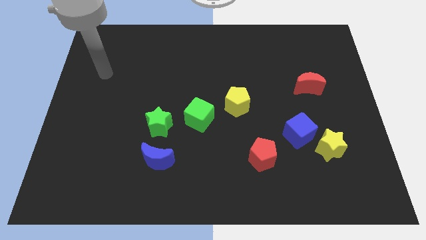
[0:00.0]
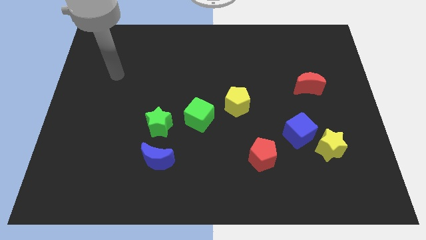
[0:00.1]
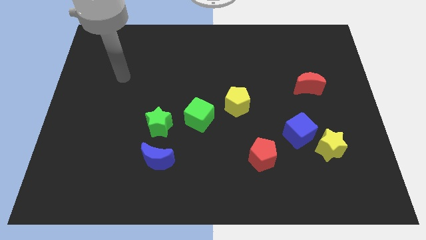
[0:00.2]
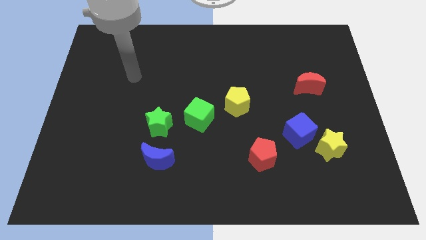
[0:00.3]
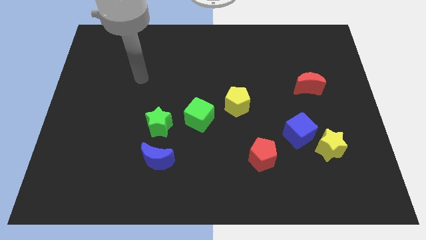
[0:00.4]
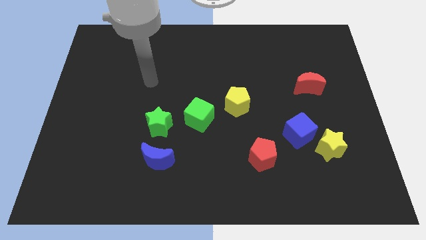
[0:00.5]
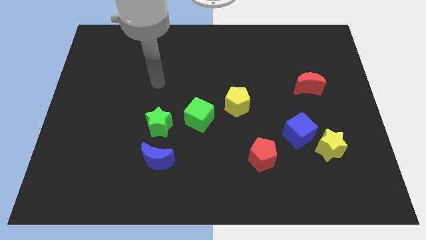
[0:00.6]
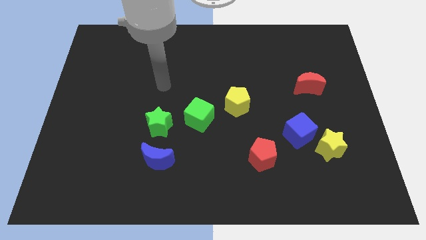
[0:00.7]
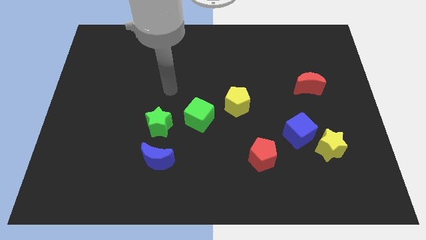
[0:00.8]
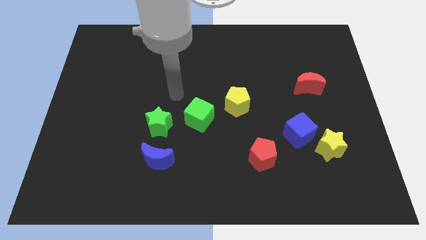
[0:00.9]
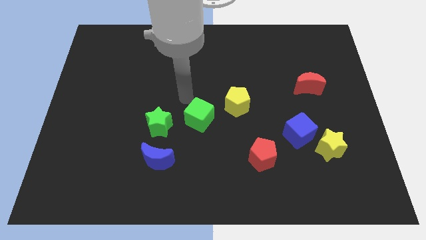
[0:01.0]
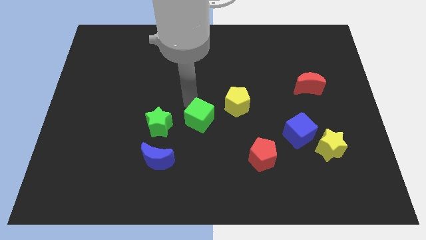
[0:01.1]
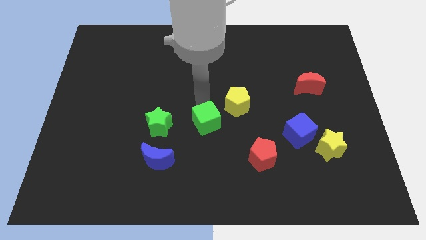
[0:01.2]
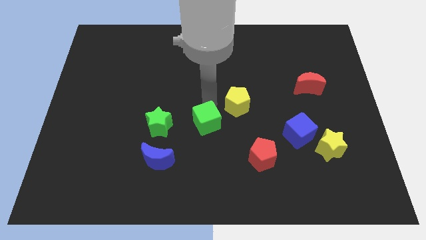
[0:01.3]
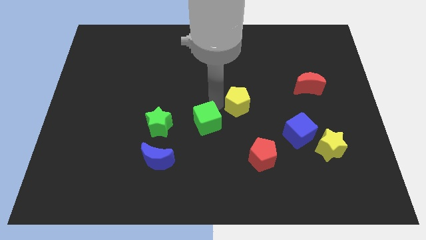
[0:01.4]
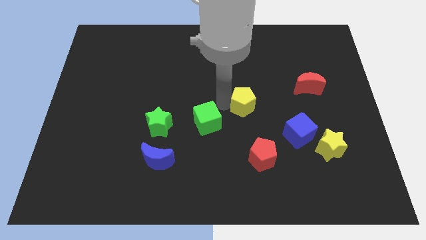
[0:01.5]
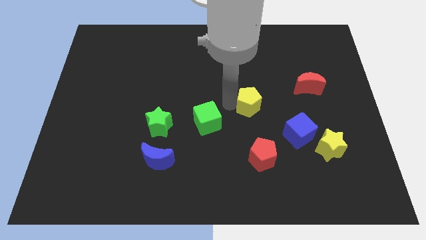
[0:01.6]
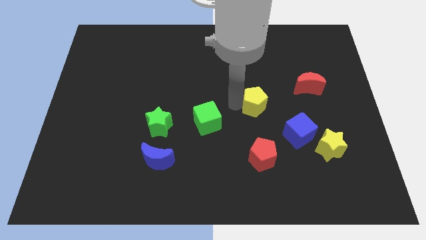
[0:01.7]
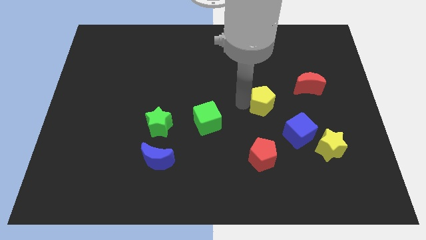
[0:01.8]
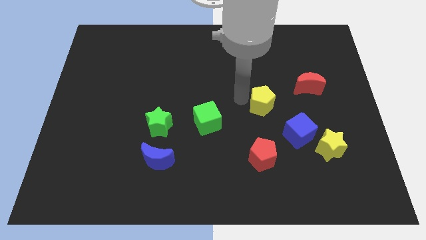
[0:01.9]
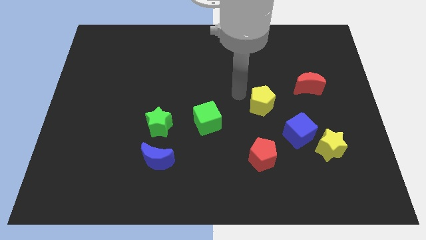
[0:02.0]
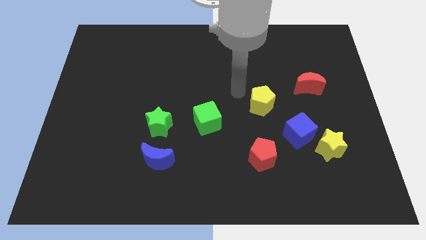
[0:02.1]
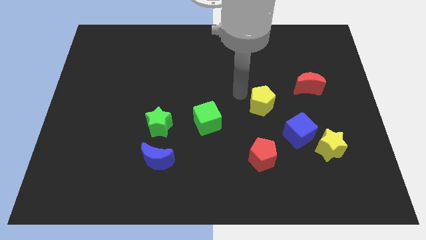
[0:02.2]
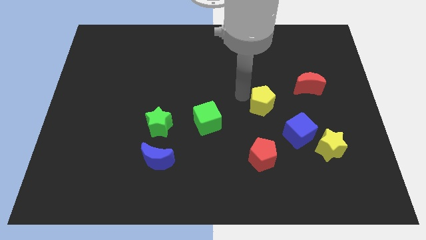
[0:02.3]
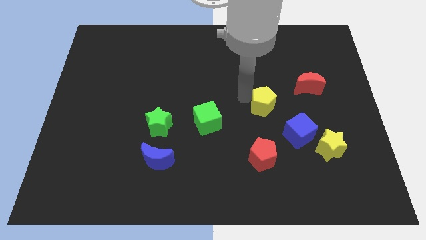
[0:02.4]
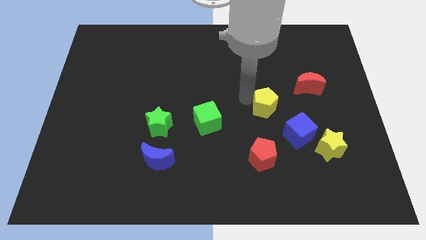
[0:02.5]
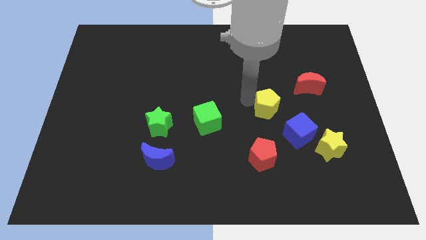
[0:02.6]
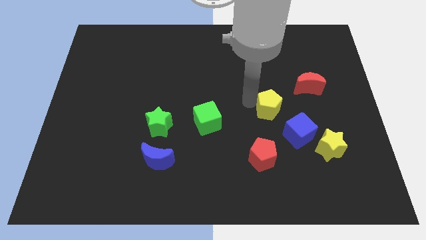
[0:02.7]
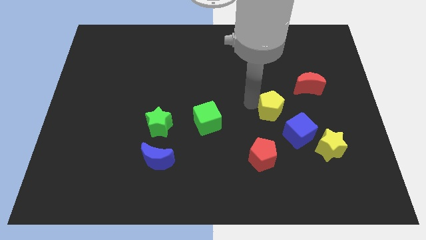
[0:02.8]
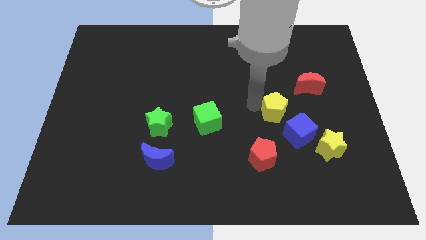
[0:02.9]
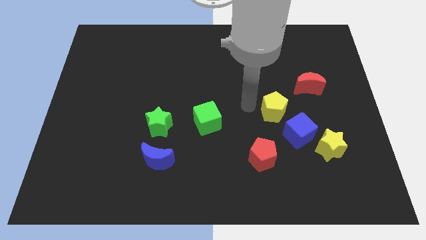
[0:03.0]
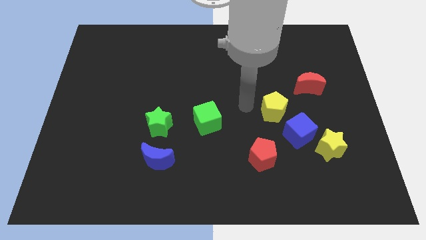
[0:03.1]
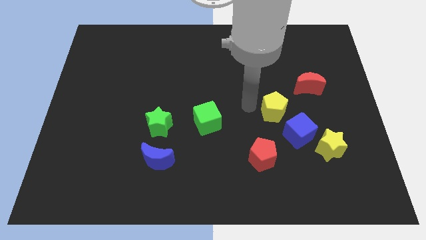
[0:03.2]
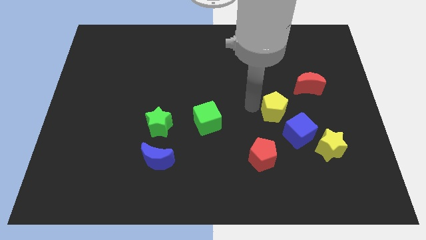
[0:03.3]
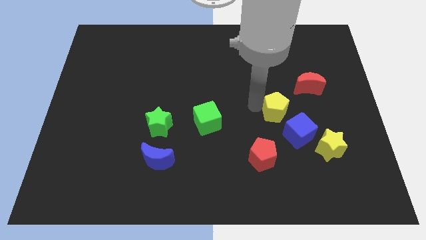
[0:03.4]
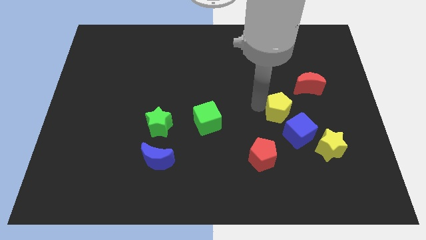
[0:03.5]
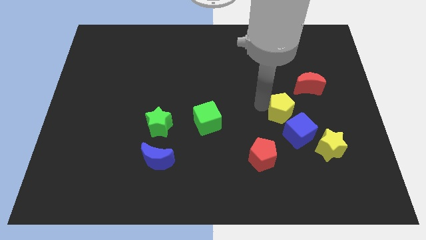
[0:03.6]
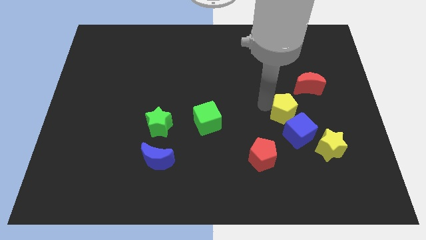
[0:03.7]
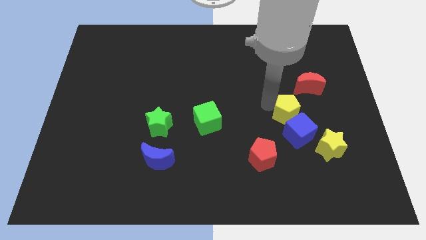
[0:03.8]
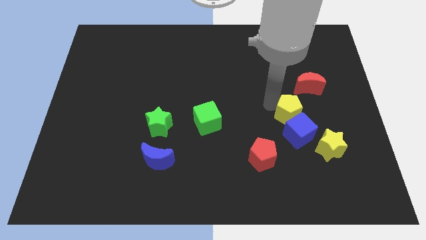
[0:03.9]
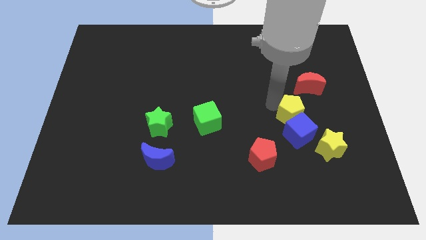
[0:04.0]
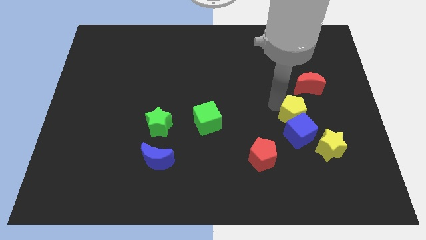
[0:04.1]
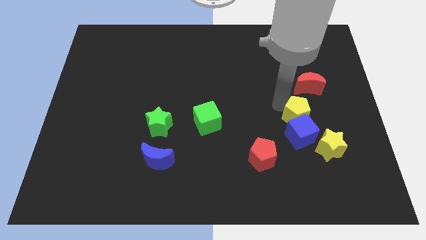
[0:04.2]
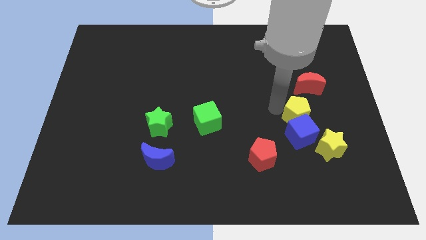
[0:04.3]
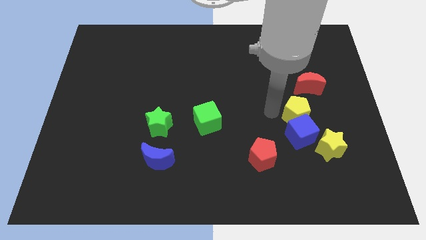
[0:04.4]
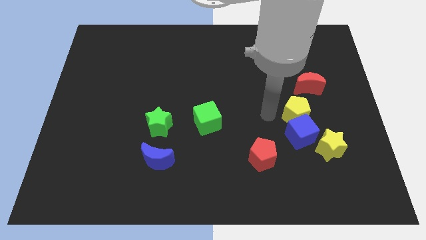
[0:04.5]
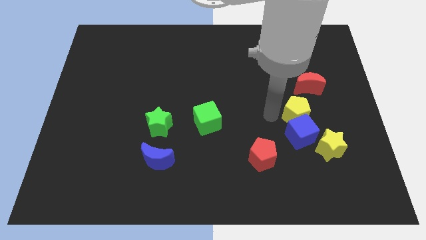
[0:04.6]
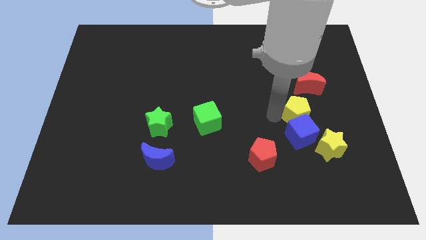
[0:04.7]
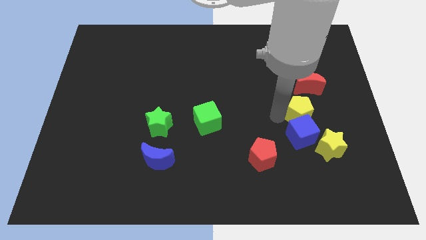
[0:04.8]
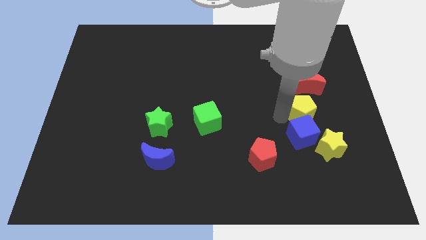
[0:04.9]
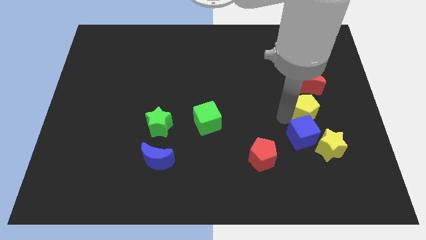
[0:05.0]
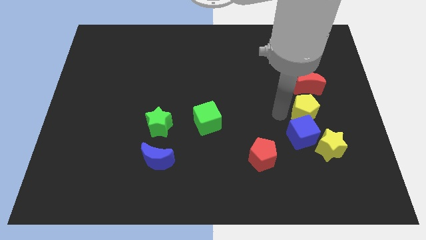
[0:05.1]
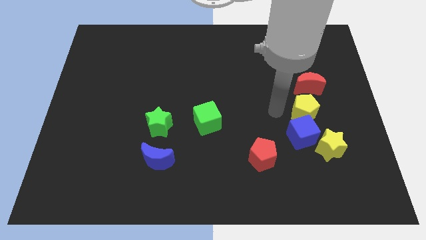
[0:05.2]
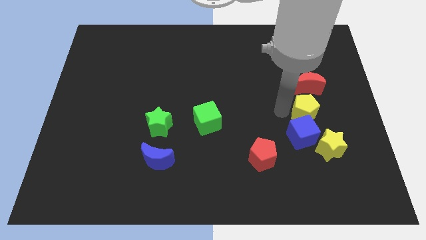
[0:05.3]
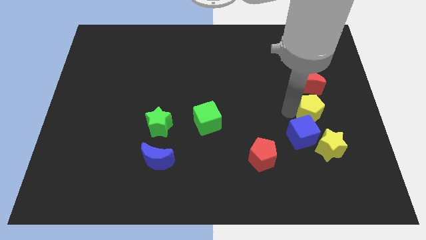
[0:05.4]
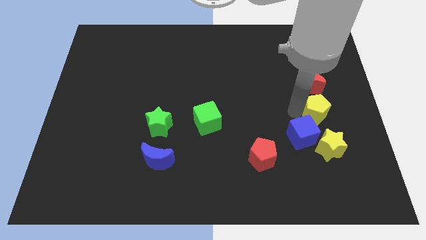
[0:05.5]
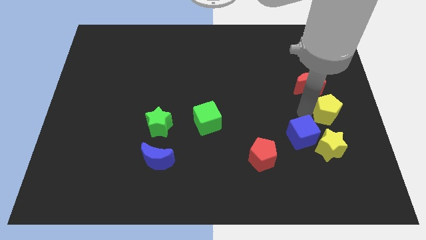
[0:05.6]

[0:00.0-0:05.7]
put the yellow pentagon to the right side

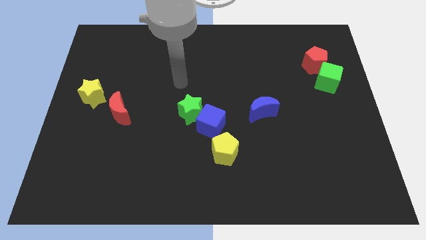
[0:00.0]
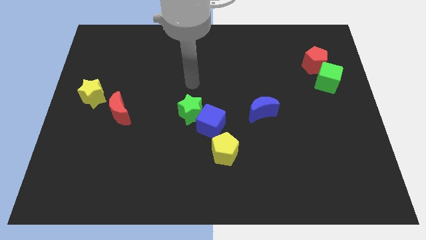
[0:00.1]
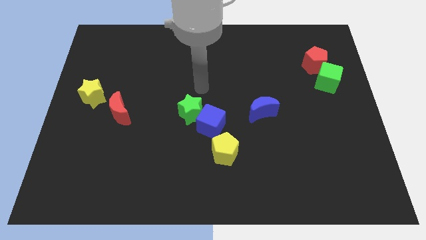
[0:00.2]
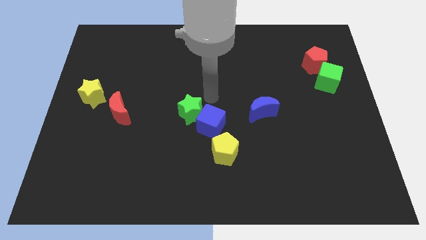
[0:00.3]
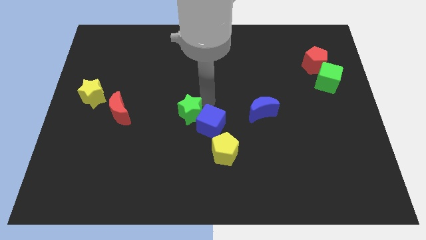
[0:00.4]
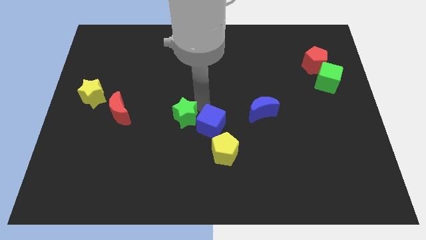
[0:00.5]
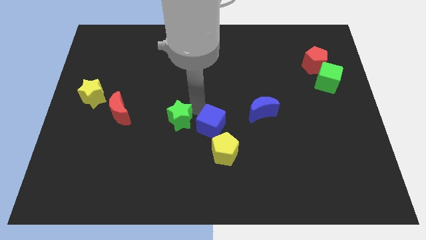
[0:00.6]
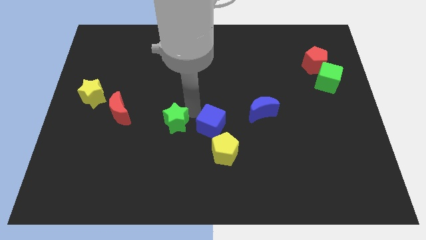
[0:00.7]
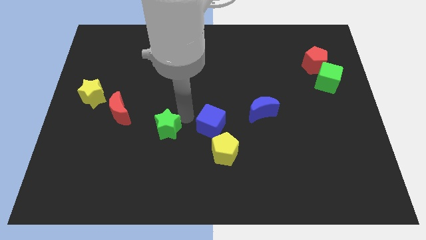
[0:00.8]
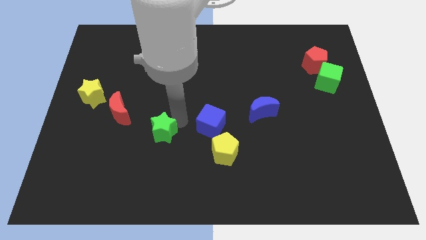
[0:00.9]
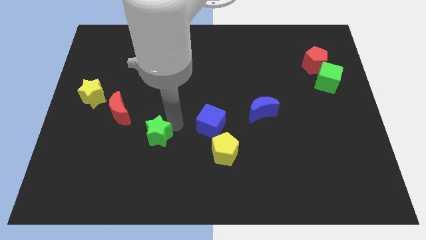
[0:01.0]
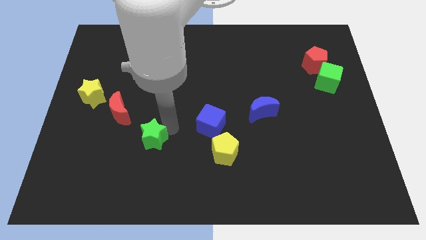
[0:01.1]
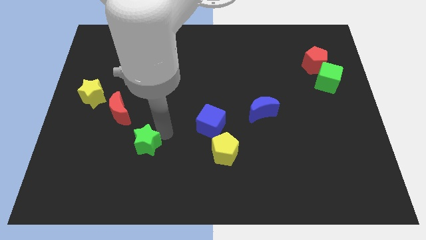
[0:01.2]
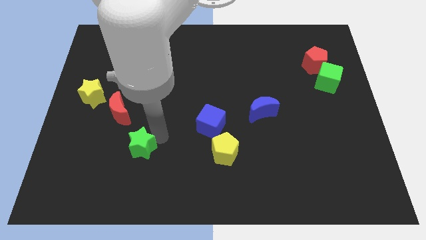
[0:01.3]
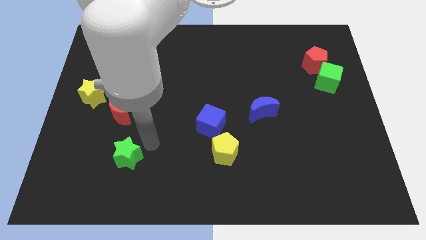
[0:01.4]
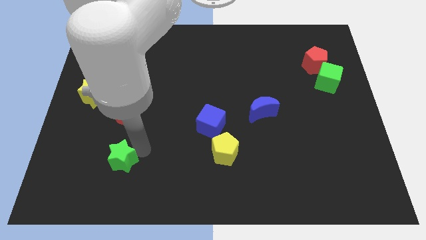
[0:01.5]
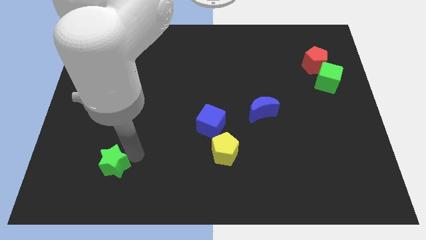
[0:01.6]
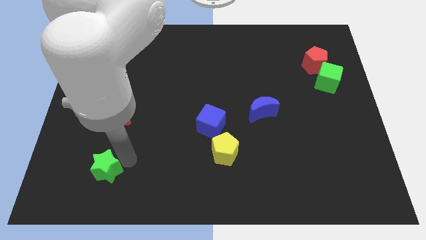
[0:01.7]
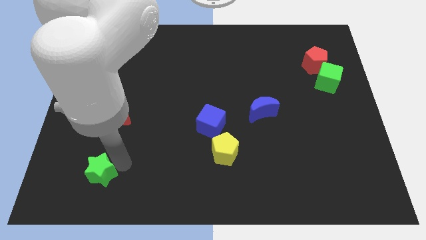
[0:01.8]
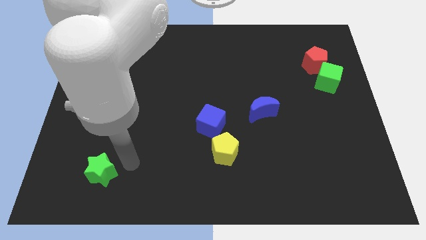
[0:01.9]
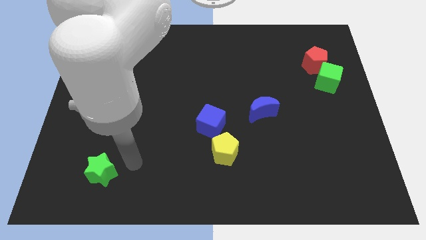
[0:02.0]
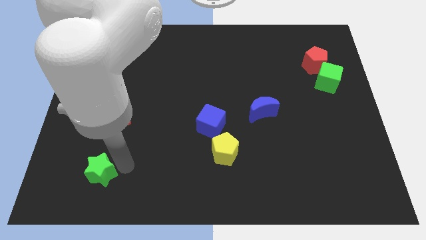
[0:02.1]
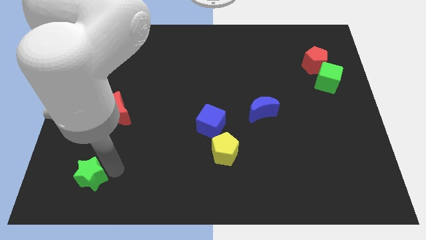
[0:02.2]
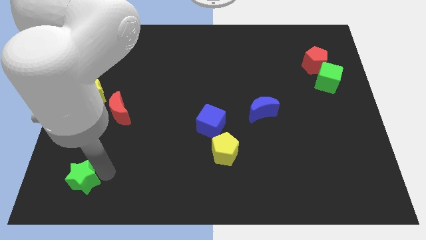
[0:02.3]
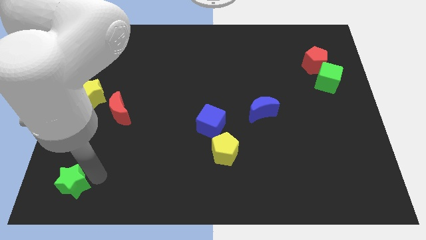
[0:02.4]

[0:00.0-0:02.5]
move the green star to the bottom left of the board
